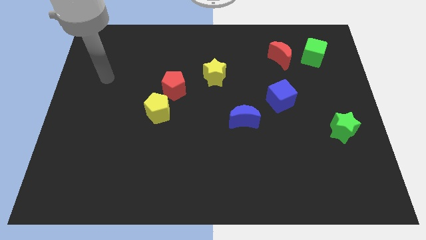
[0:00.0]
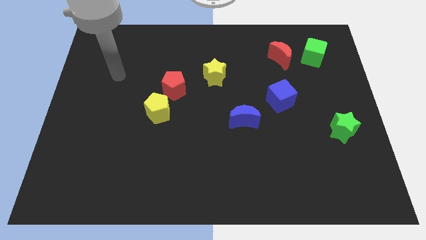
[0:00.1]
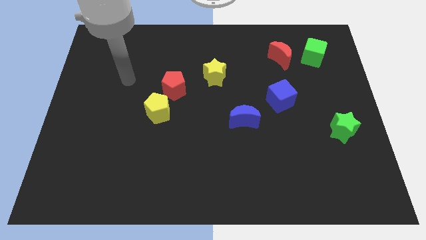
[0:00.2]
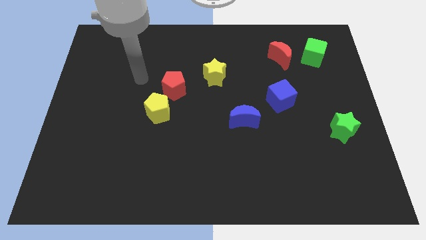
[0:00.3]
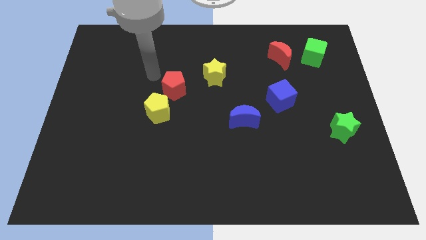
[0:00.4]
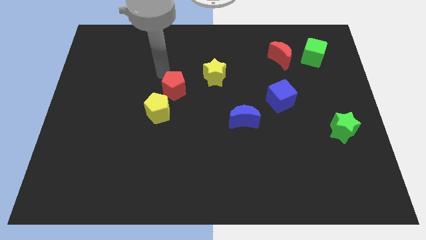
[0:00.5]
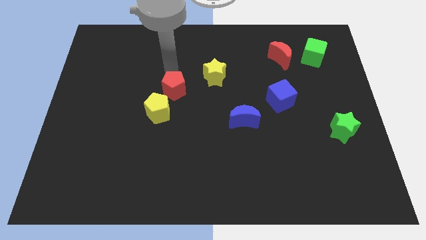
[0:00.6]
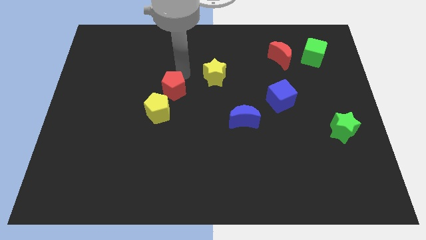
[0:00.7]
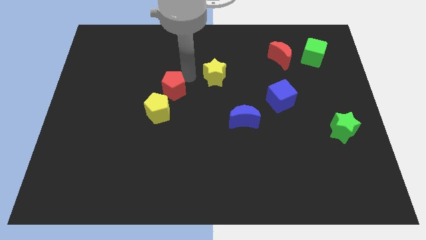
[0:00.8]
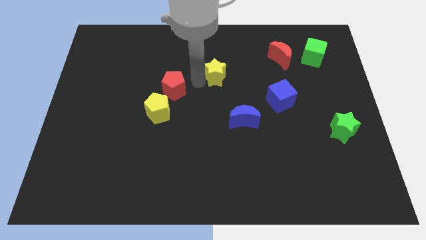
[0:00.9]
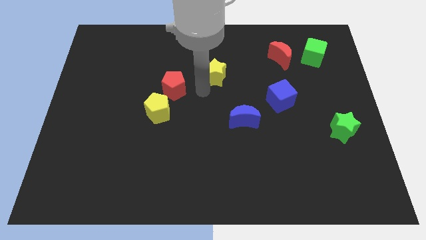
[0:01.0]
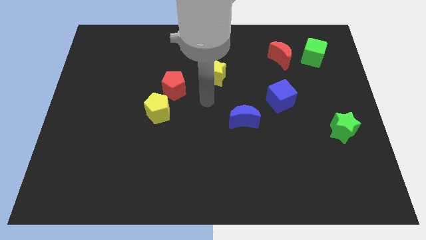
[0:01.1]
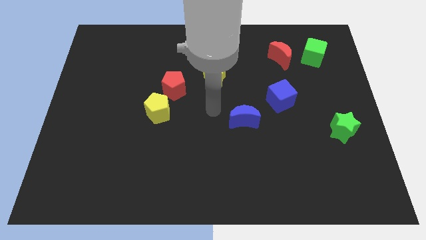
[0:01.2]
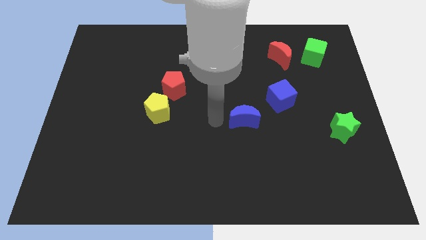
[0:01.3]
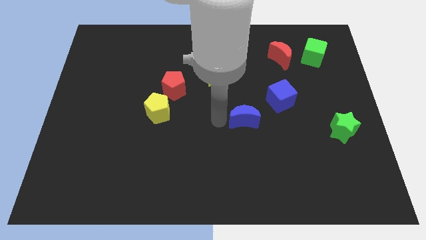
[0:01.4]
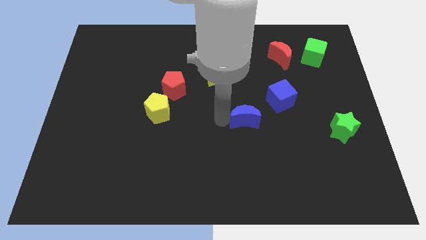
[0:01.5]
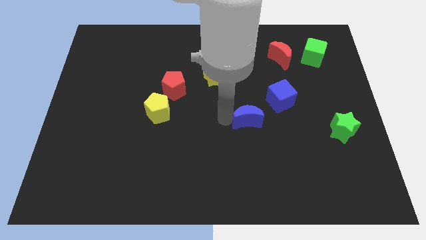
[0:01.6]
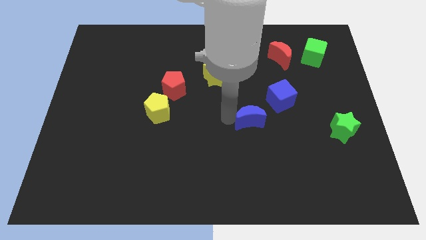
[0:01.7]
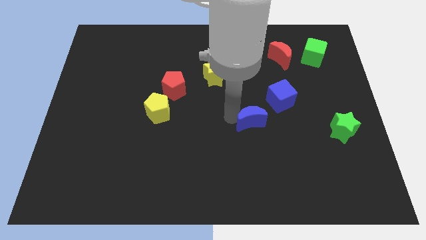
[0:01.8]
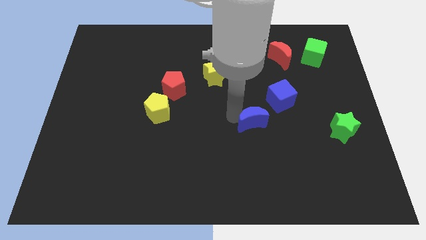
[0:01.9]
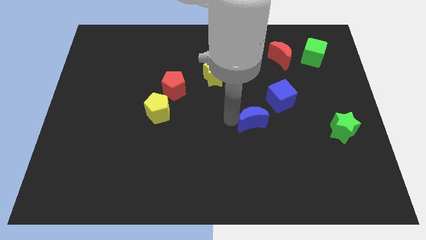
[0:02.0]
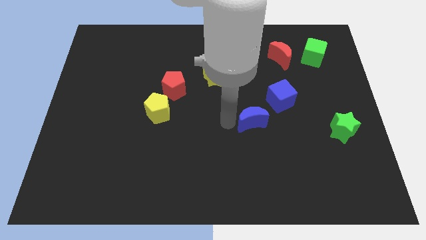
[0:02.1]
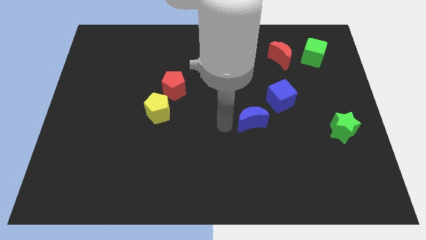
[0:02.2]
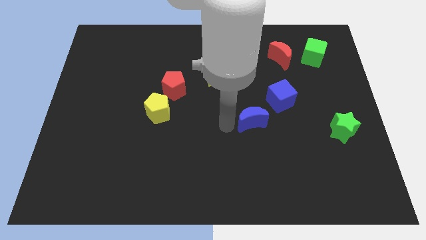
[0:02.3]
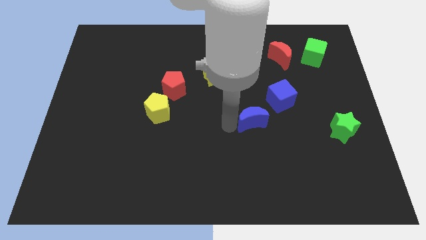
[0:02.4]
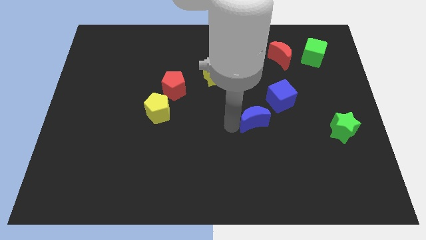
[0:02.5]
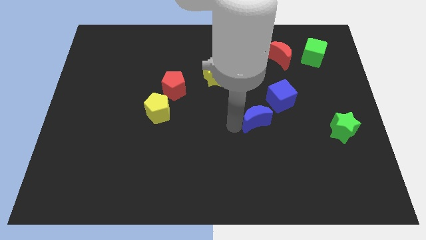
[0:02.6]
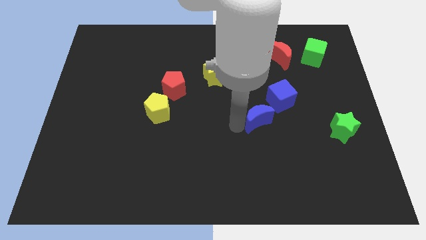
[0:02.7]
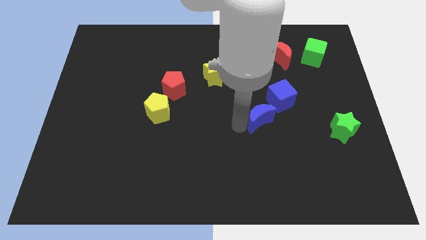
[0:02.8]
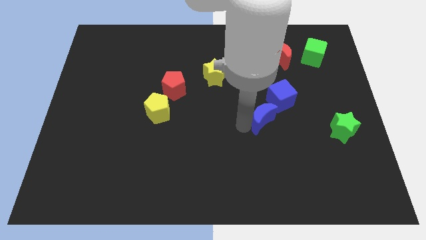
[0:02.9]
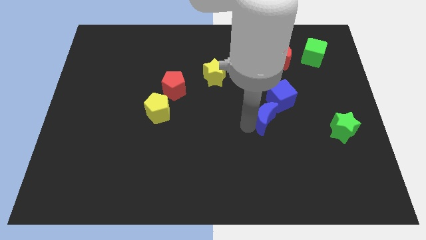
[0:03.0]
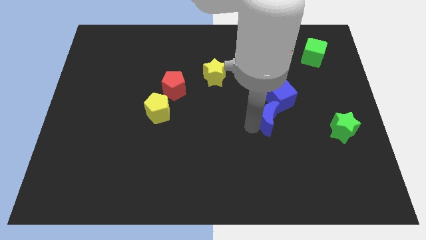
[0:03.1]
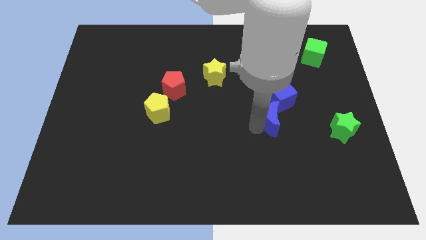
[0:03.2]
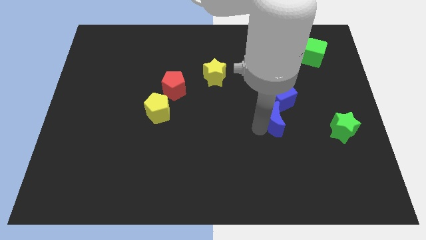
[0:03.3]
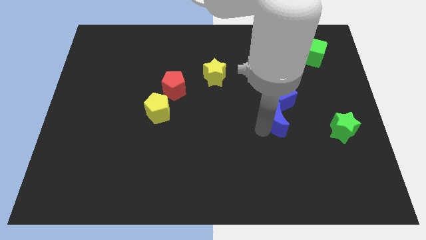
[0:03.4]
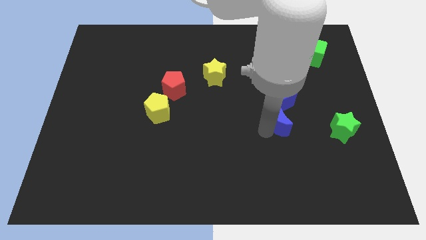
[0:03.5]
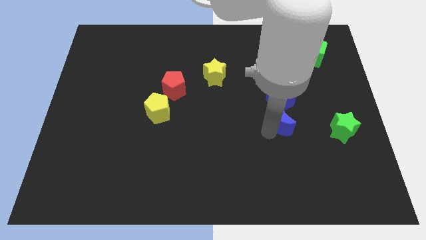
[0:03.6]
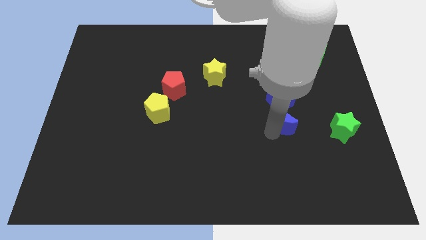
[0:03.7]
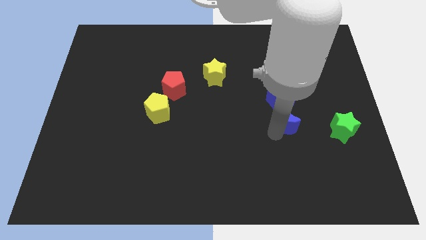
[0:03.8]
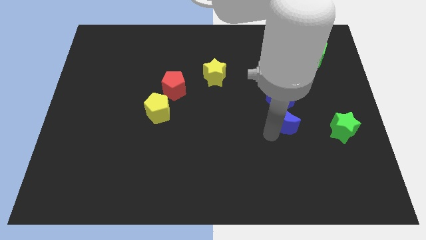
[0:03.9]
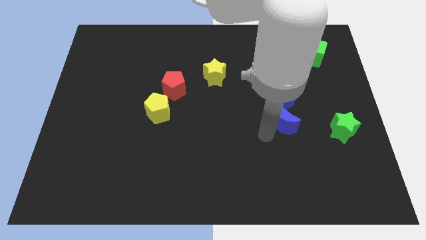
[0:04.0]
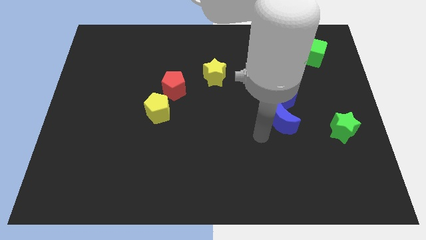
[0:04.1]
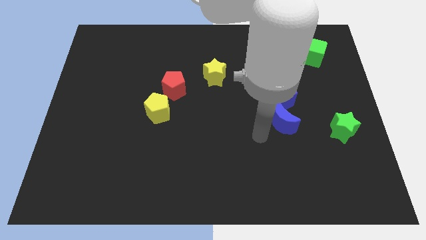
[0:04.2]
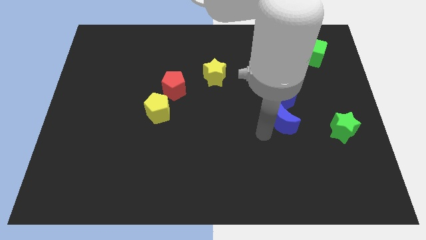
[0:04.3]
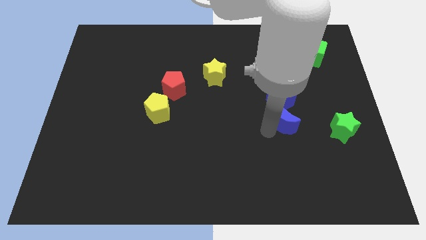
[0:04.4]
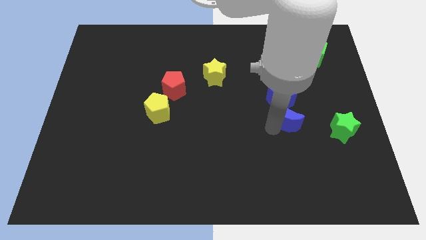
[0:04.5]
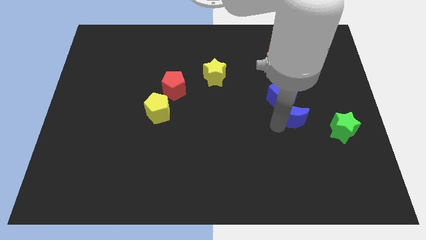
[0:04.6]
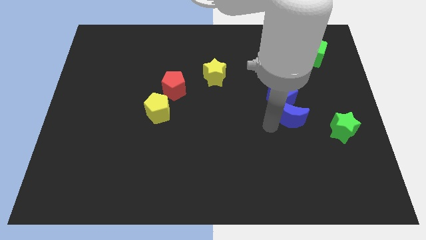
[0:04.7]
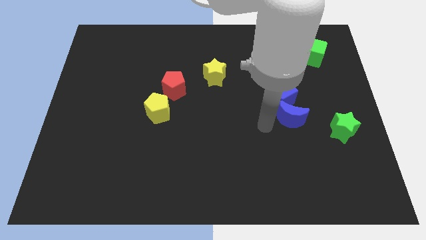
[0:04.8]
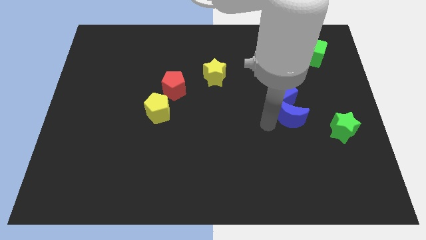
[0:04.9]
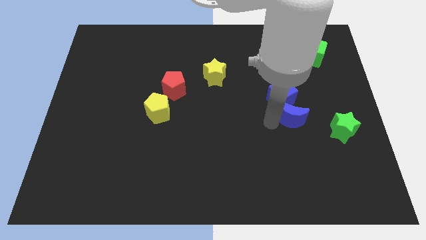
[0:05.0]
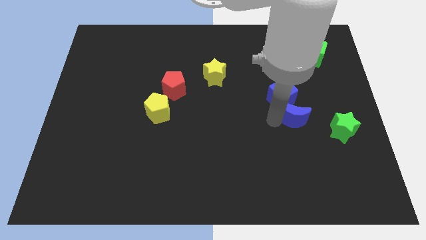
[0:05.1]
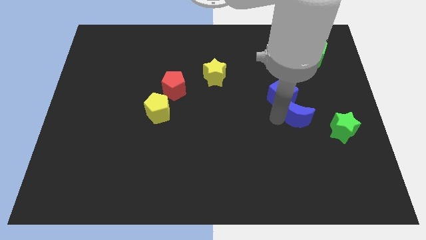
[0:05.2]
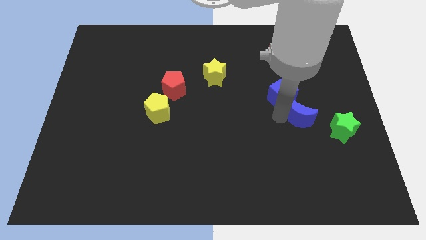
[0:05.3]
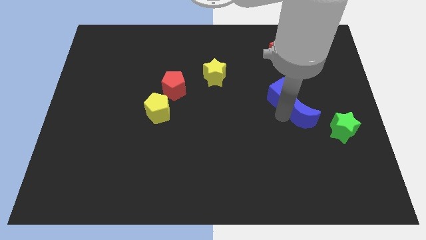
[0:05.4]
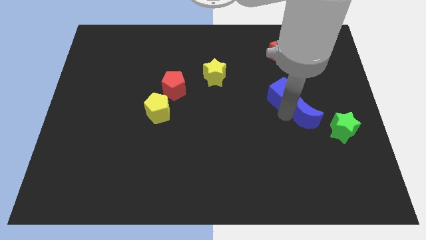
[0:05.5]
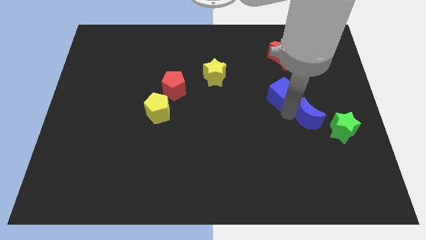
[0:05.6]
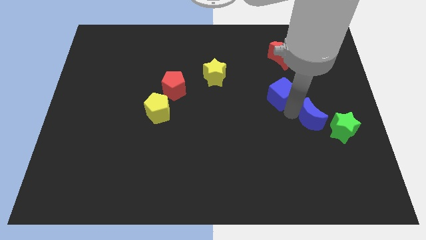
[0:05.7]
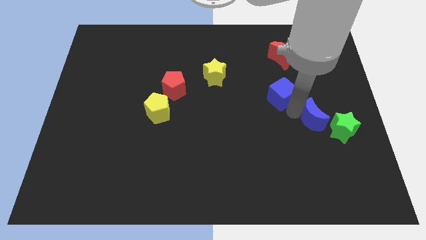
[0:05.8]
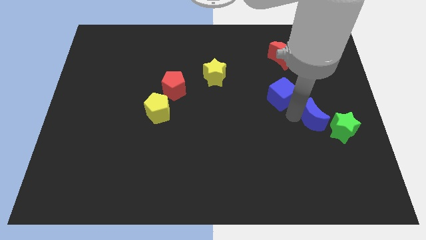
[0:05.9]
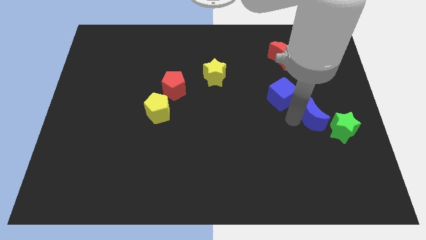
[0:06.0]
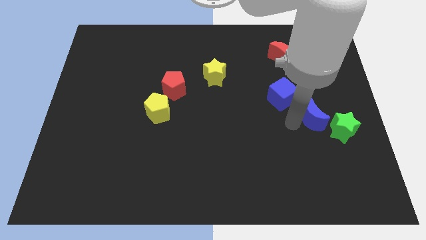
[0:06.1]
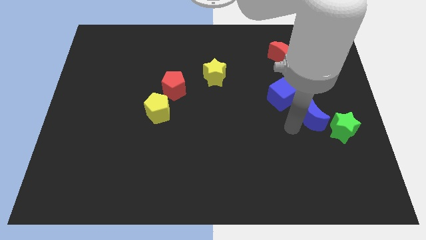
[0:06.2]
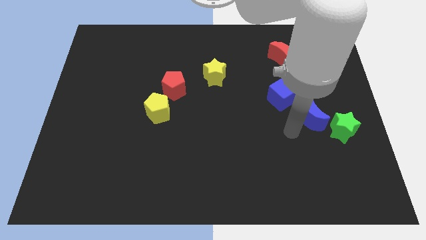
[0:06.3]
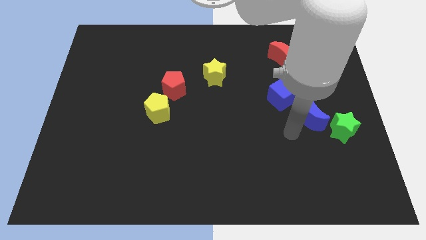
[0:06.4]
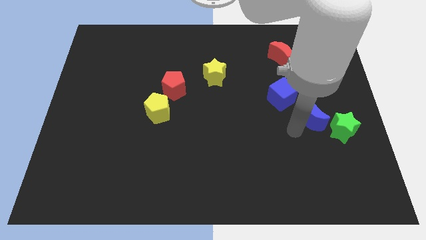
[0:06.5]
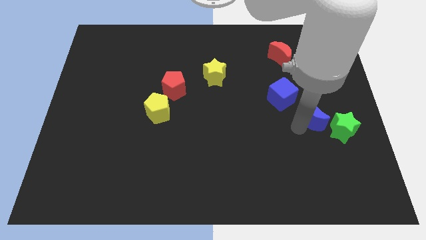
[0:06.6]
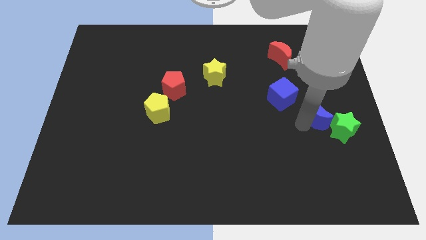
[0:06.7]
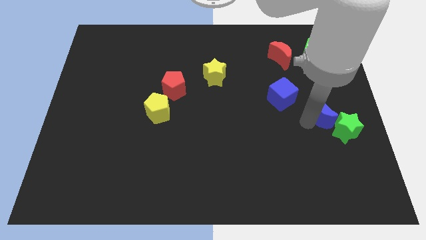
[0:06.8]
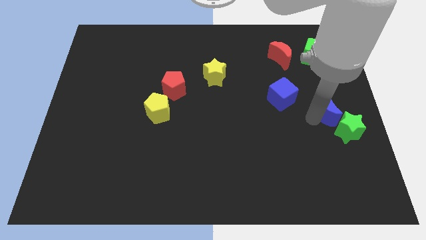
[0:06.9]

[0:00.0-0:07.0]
push the blue moon to the right side of the board
